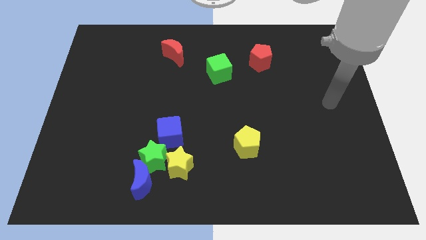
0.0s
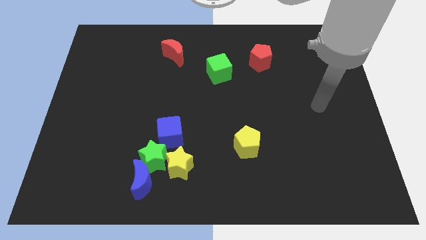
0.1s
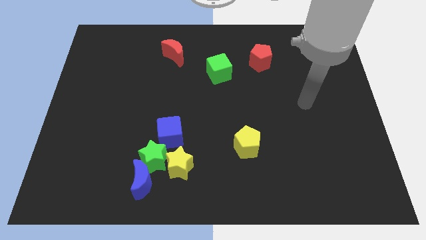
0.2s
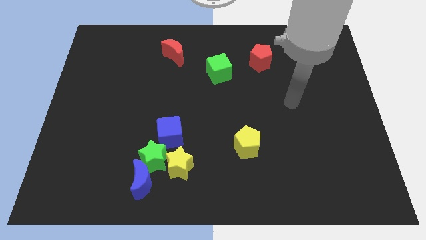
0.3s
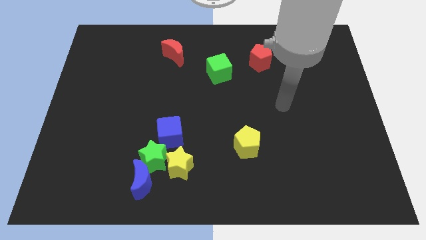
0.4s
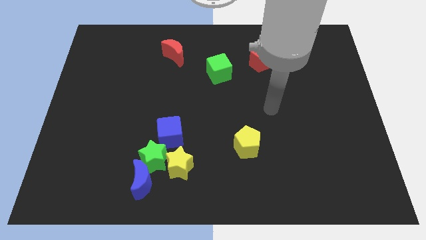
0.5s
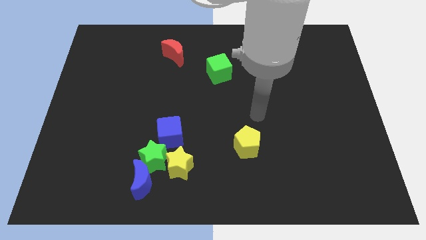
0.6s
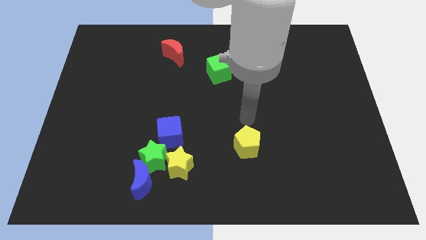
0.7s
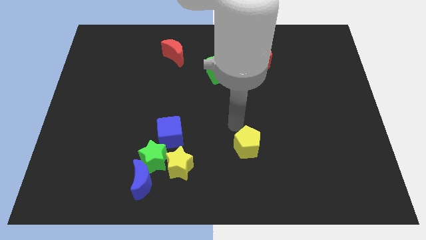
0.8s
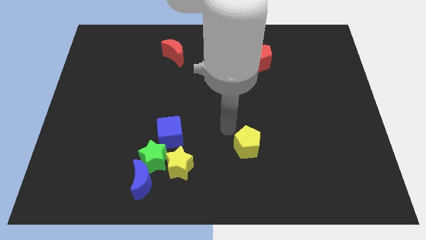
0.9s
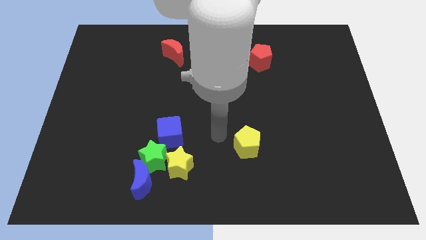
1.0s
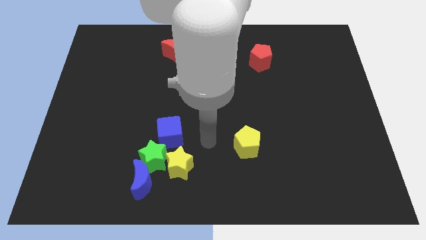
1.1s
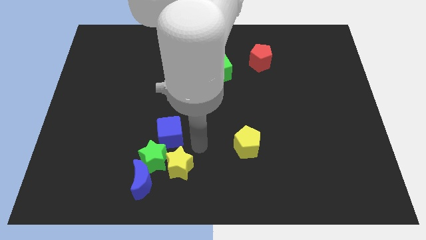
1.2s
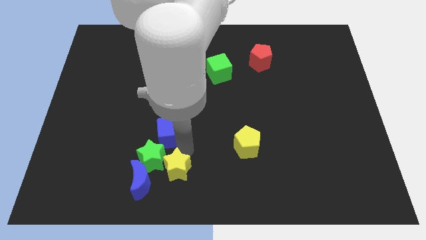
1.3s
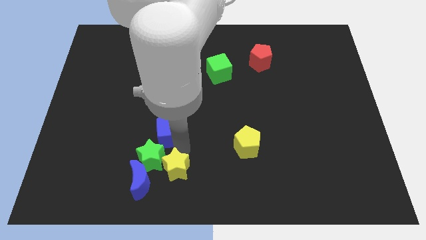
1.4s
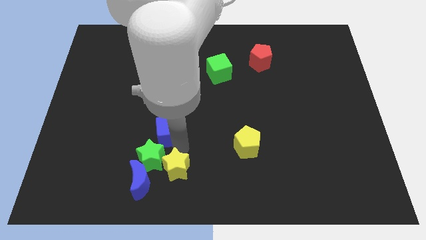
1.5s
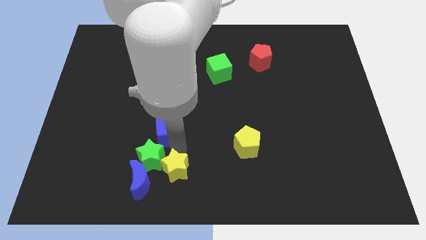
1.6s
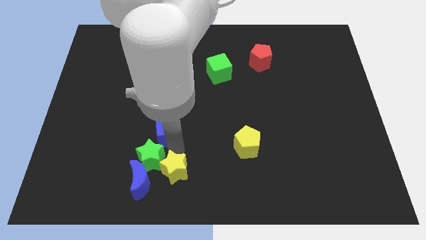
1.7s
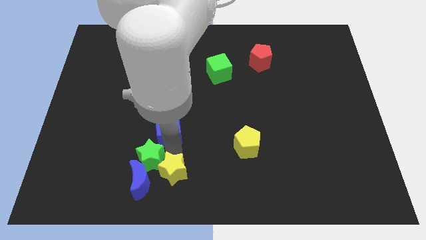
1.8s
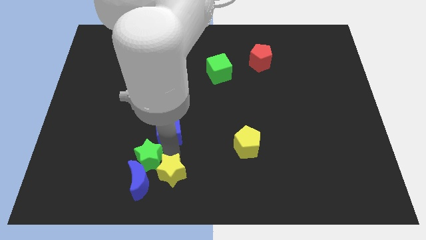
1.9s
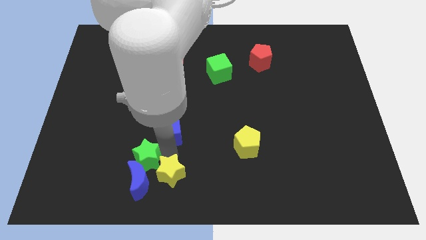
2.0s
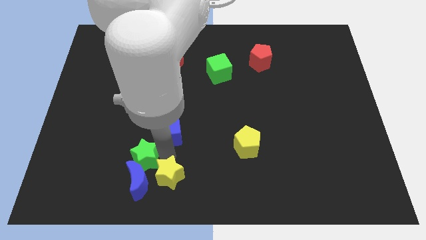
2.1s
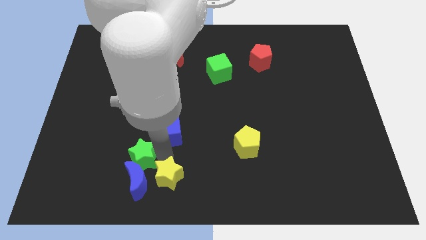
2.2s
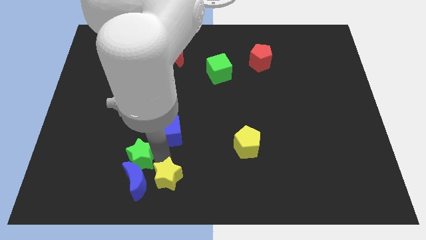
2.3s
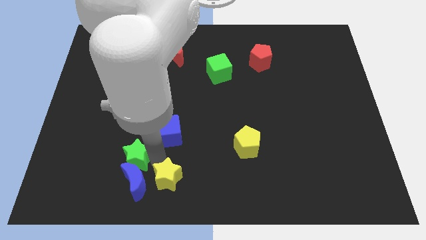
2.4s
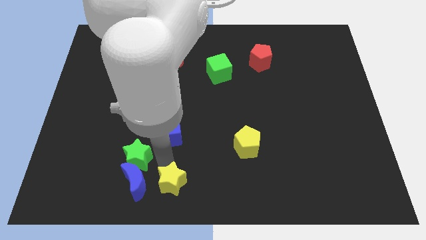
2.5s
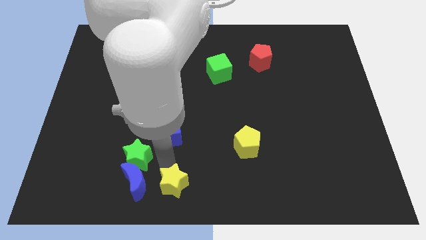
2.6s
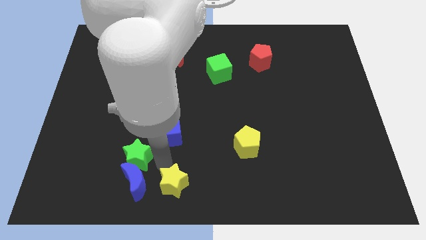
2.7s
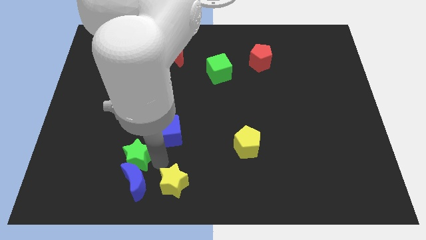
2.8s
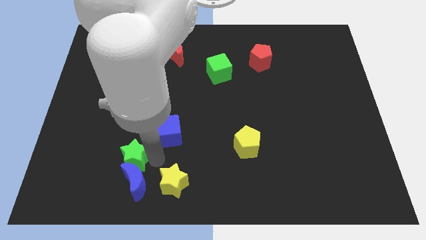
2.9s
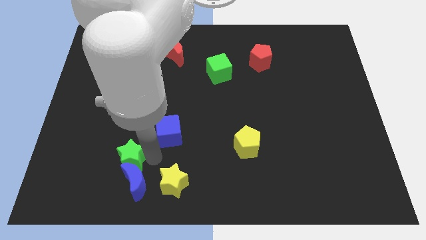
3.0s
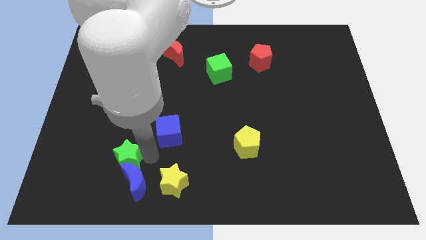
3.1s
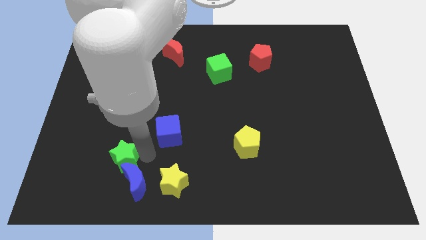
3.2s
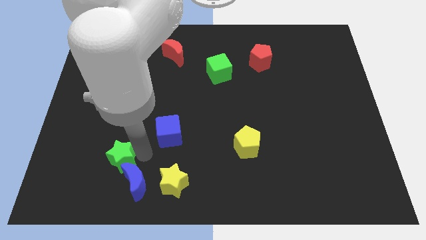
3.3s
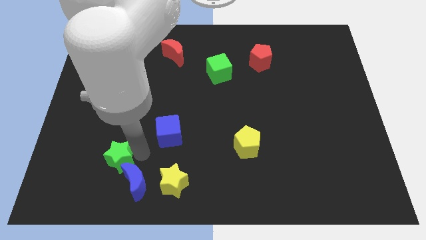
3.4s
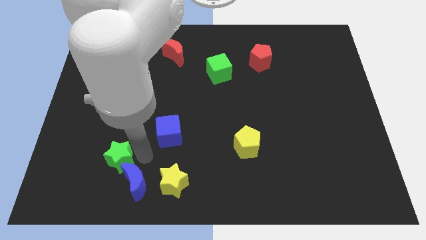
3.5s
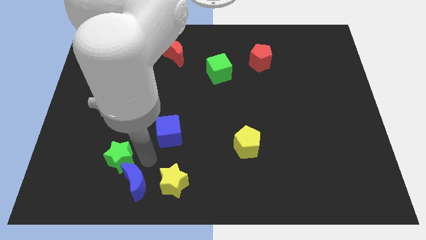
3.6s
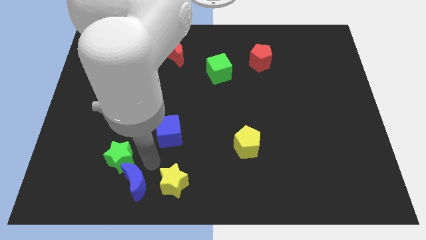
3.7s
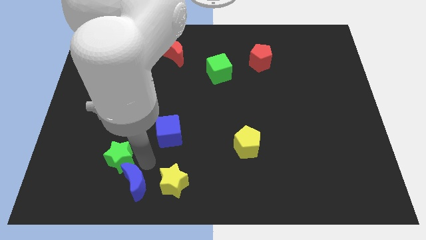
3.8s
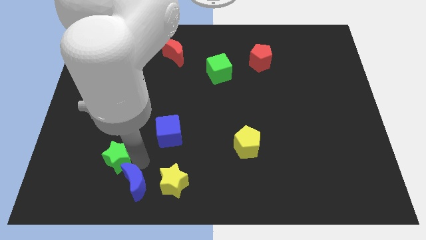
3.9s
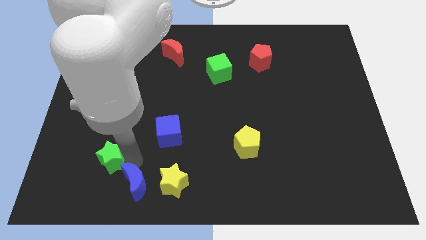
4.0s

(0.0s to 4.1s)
pull the green star apart from the group of blocks

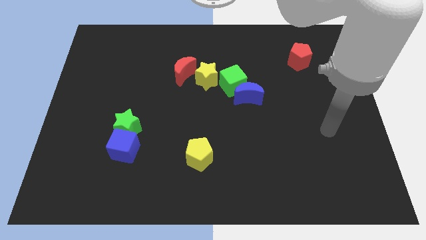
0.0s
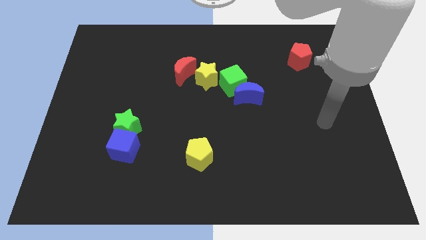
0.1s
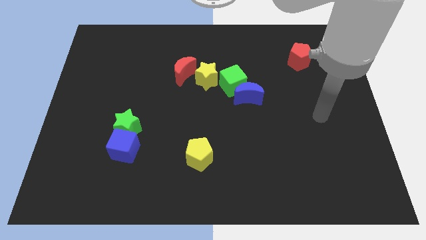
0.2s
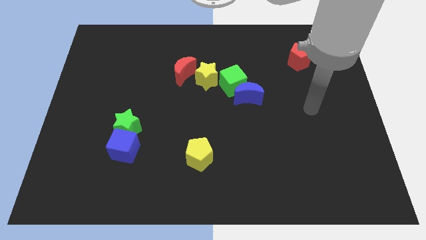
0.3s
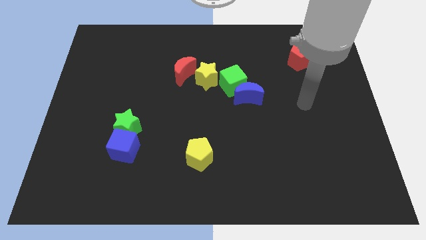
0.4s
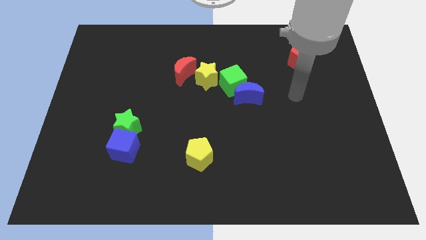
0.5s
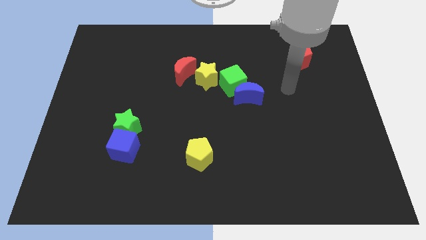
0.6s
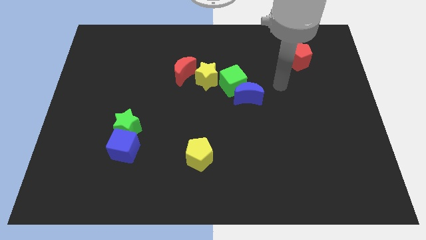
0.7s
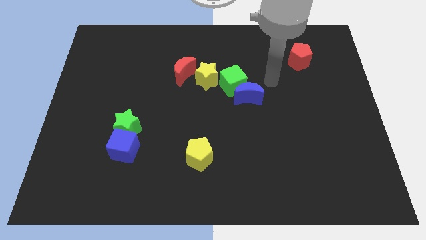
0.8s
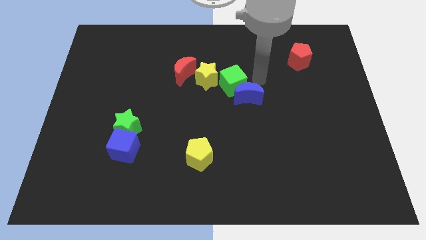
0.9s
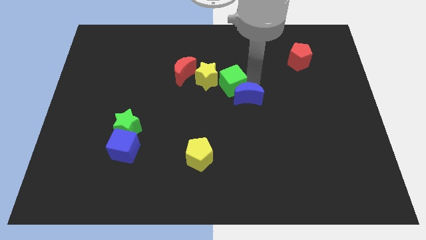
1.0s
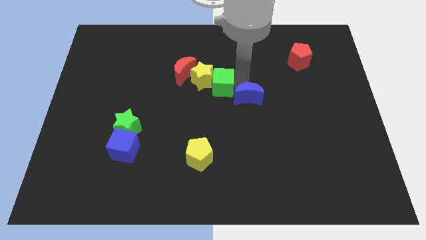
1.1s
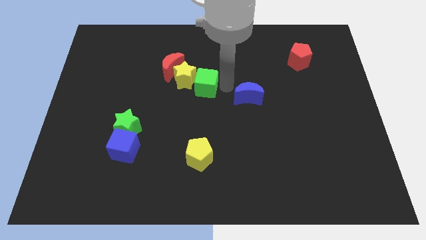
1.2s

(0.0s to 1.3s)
pull the blue moon apart from the green cube

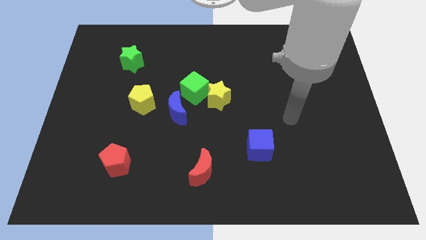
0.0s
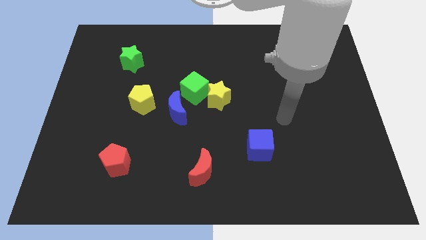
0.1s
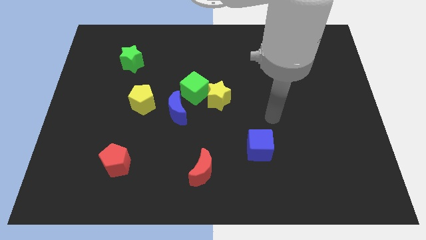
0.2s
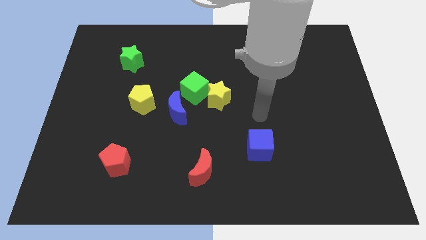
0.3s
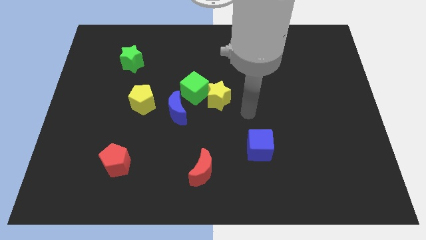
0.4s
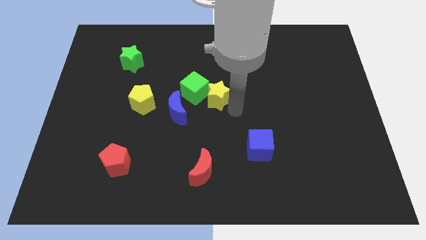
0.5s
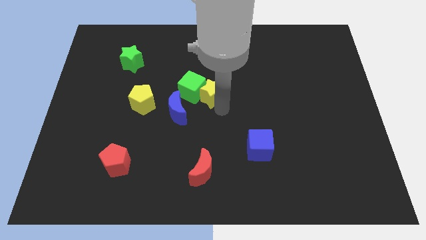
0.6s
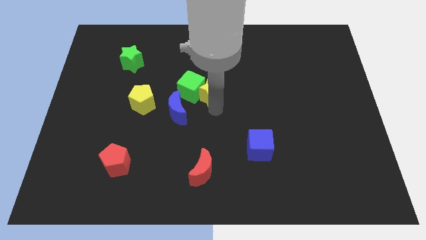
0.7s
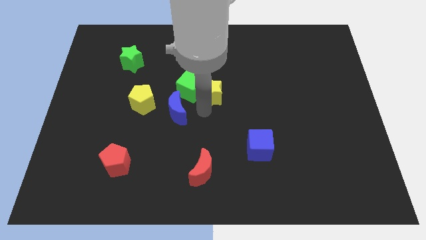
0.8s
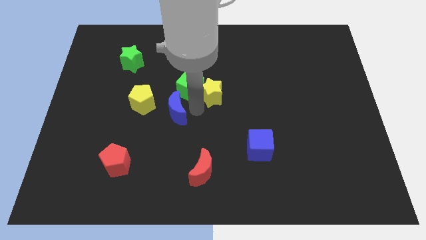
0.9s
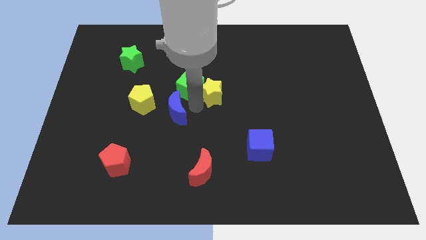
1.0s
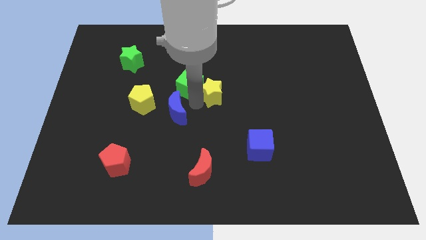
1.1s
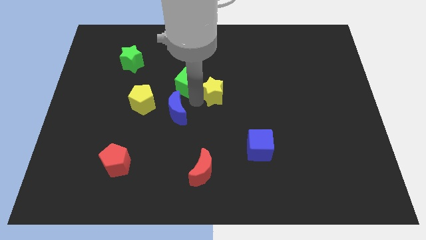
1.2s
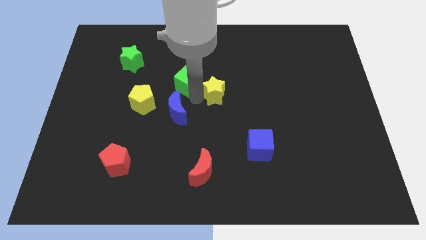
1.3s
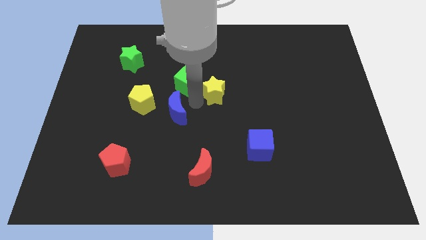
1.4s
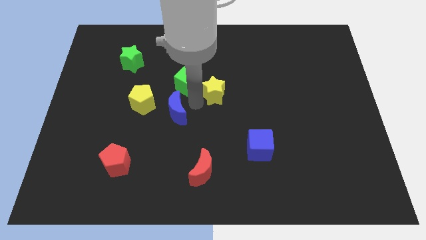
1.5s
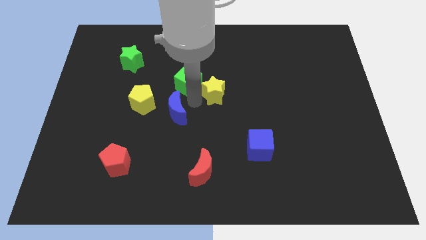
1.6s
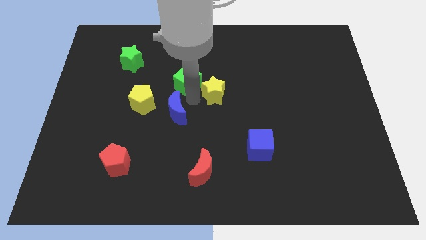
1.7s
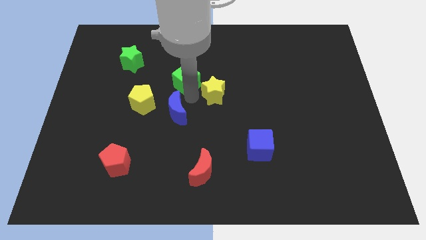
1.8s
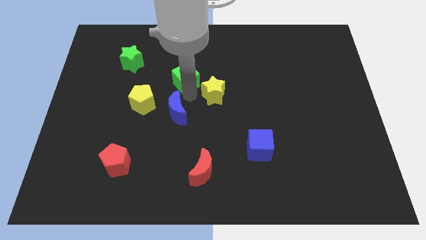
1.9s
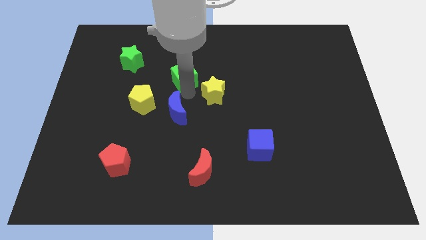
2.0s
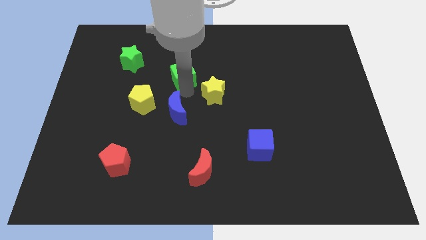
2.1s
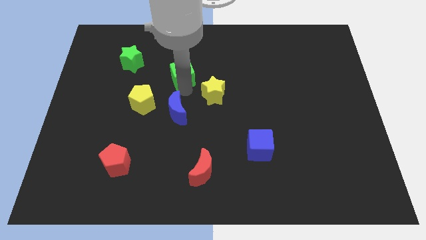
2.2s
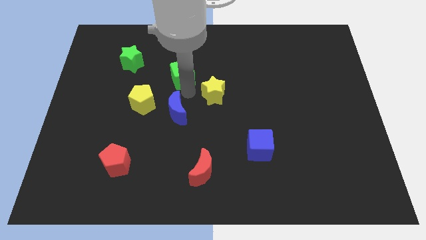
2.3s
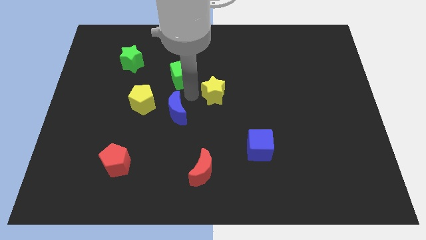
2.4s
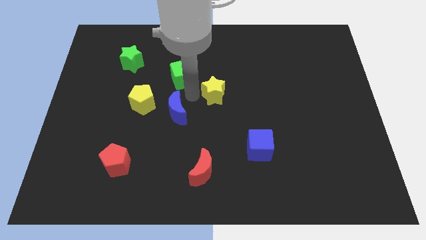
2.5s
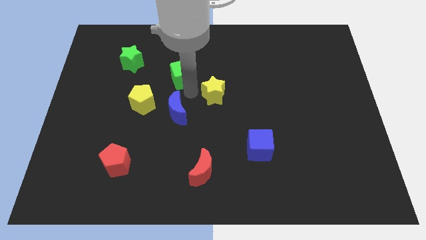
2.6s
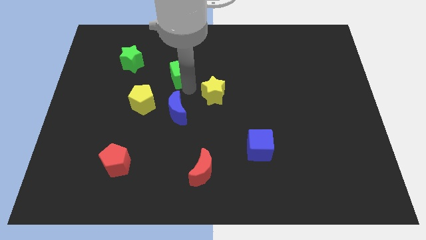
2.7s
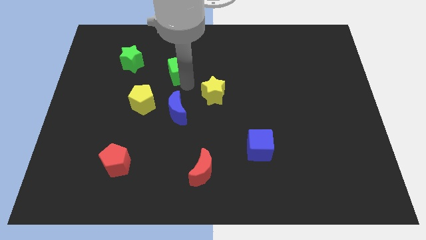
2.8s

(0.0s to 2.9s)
pull the green cube apart from the yellow star and blue moon

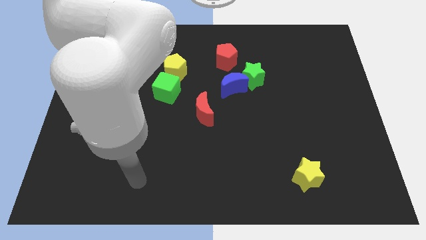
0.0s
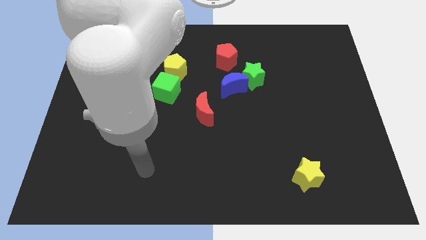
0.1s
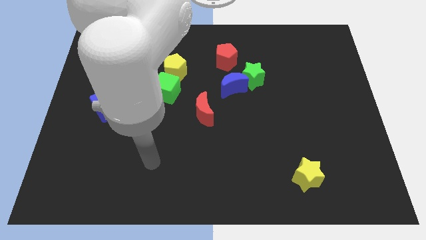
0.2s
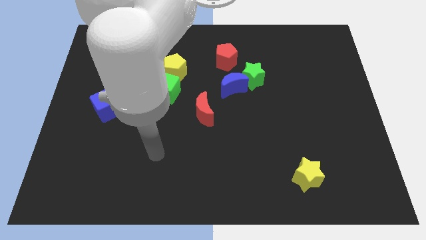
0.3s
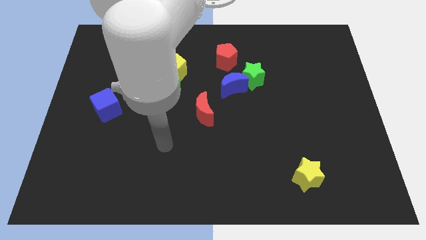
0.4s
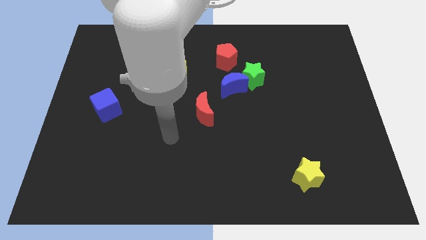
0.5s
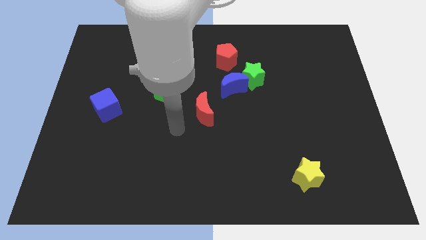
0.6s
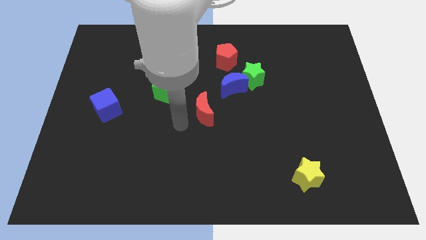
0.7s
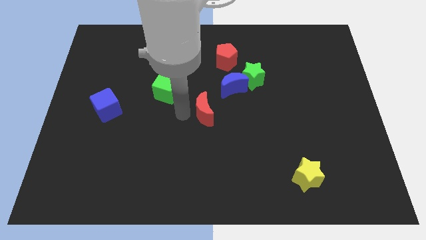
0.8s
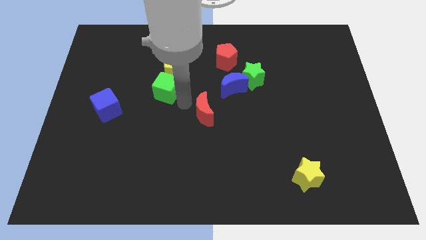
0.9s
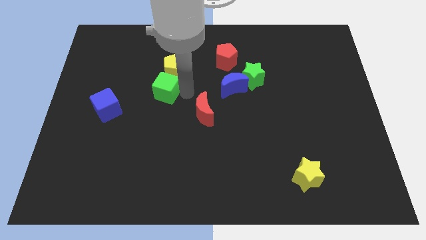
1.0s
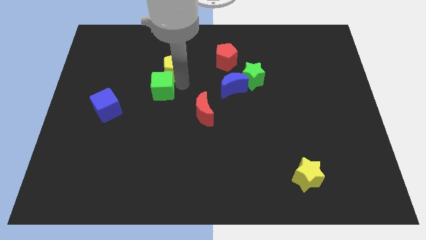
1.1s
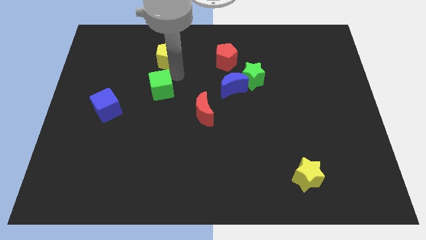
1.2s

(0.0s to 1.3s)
pull the green cube apart from the yellow pentagon
